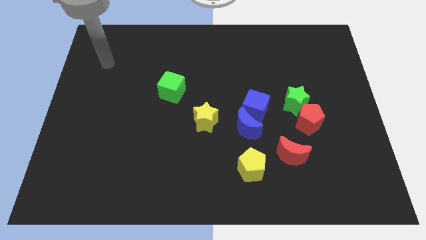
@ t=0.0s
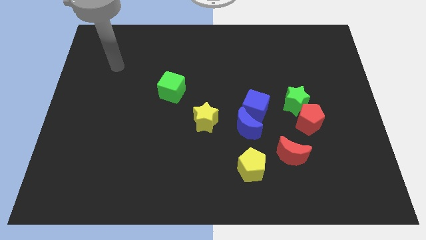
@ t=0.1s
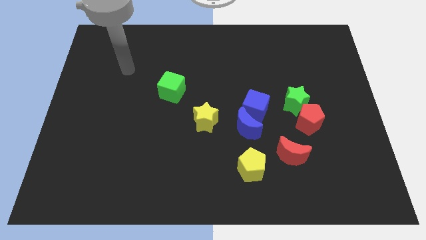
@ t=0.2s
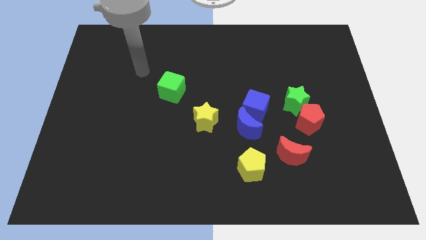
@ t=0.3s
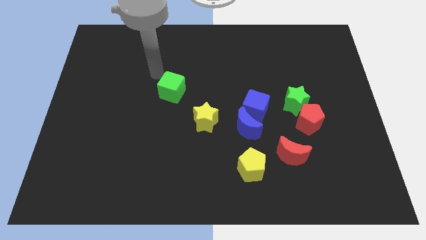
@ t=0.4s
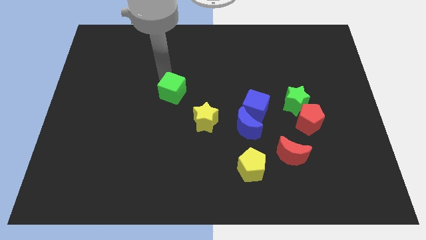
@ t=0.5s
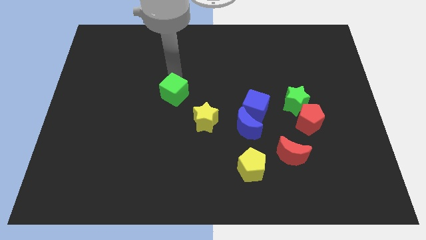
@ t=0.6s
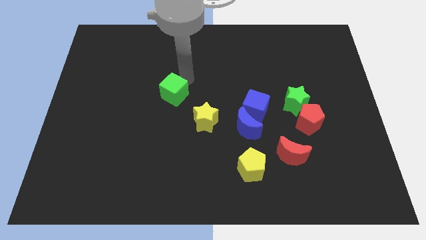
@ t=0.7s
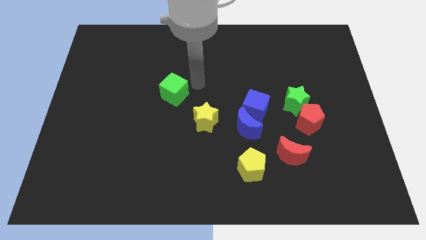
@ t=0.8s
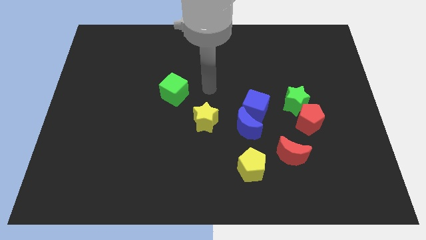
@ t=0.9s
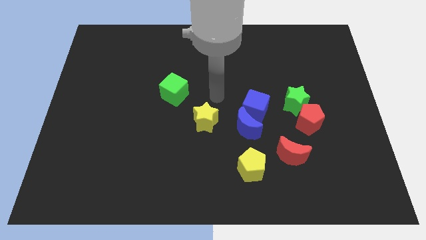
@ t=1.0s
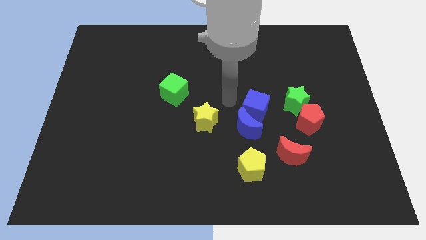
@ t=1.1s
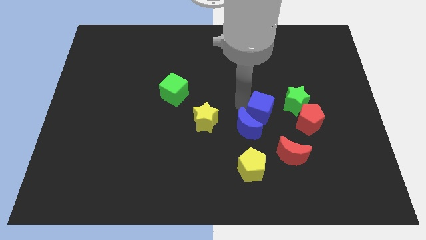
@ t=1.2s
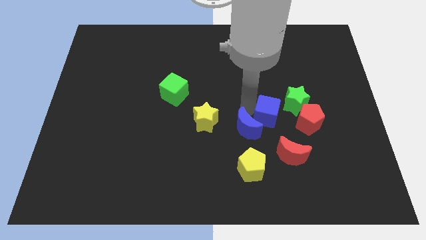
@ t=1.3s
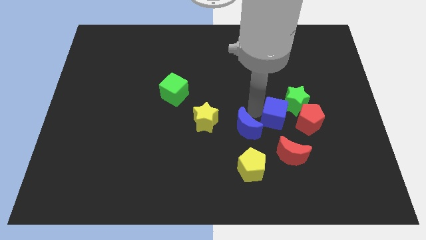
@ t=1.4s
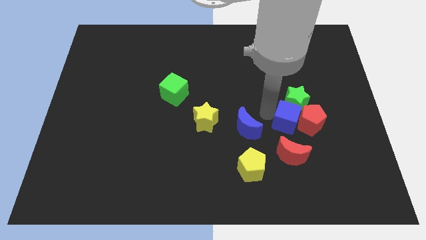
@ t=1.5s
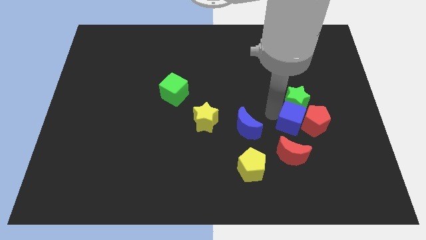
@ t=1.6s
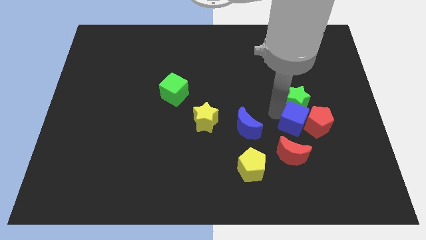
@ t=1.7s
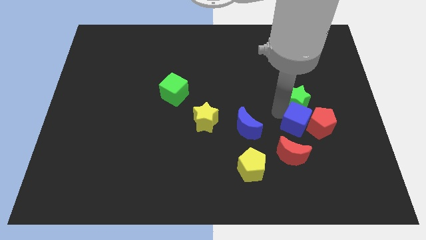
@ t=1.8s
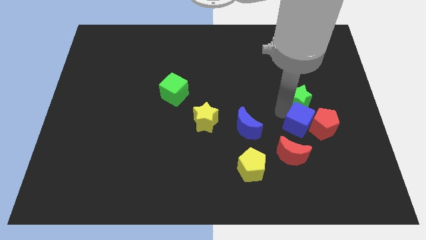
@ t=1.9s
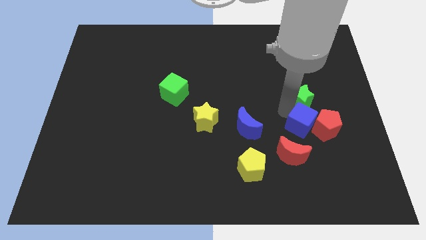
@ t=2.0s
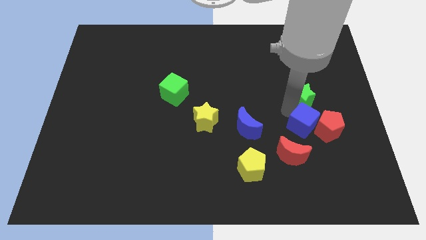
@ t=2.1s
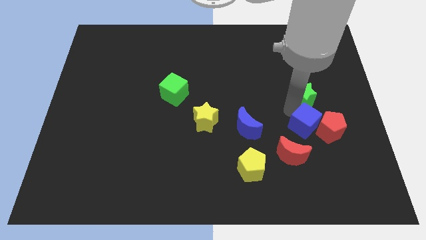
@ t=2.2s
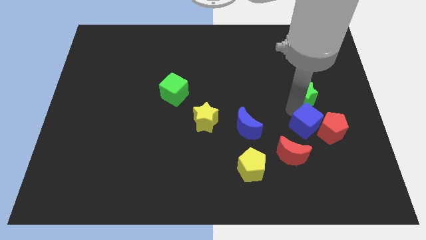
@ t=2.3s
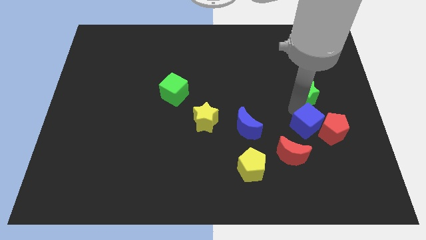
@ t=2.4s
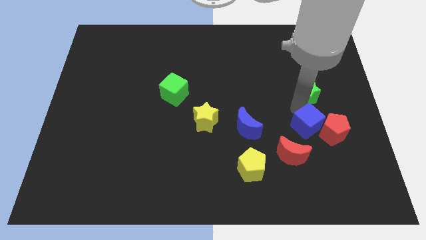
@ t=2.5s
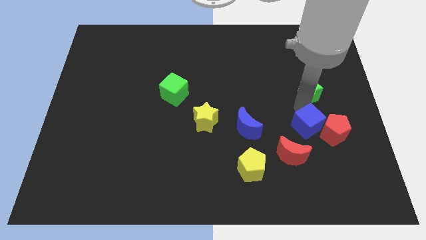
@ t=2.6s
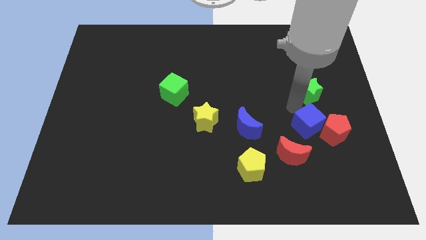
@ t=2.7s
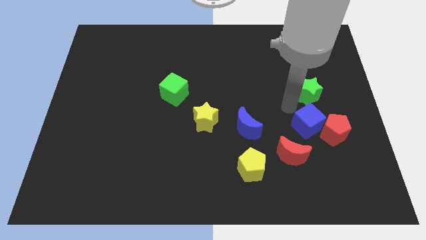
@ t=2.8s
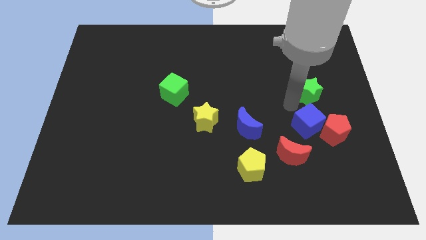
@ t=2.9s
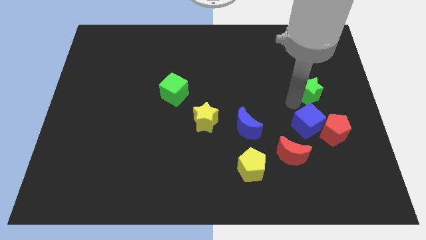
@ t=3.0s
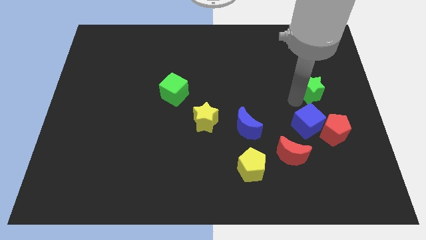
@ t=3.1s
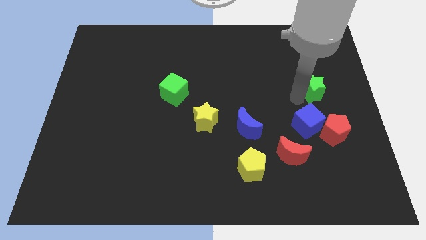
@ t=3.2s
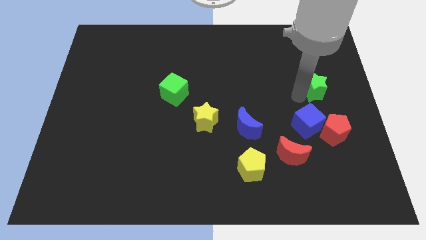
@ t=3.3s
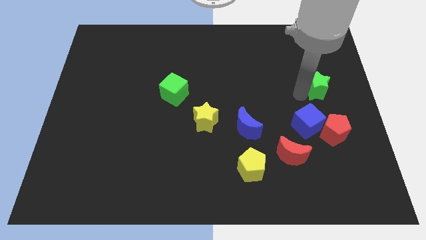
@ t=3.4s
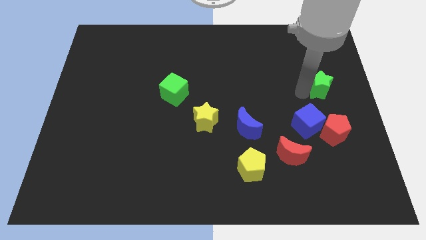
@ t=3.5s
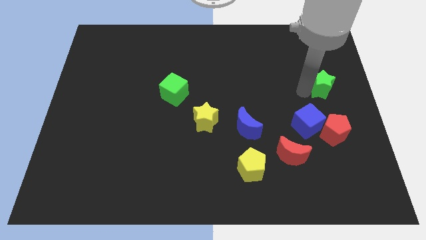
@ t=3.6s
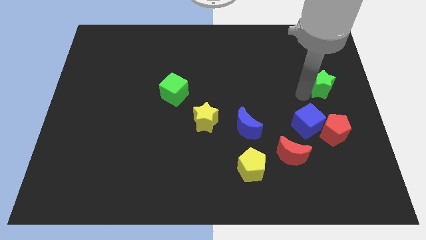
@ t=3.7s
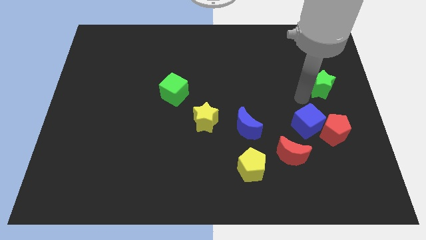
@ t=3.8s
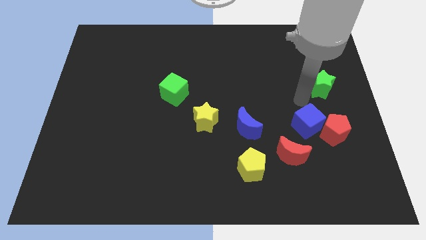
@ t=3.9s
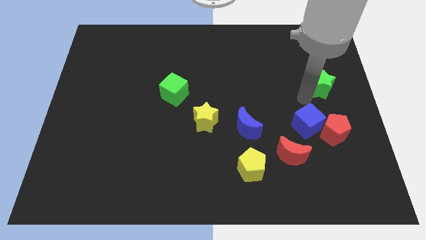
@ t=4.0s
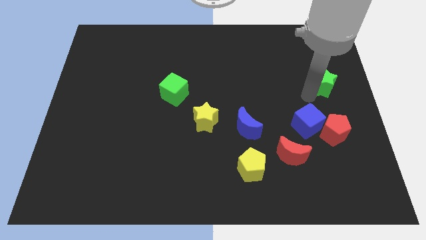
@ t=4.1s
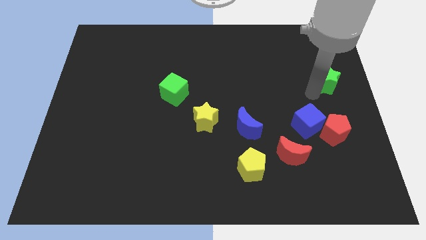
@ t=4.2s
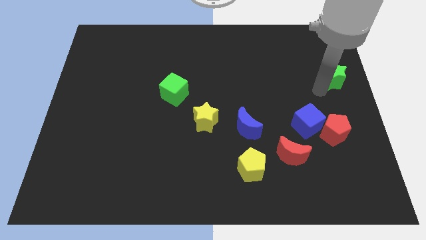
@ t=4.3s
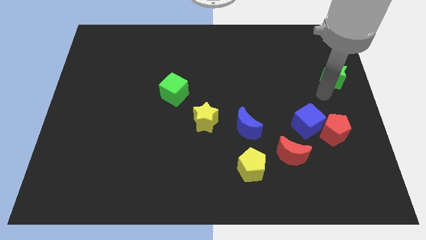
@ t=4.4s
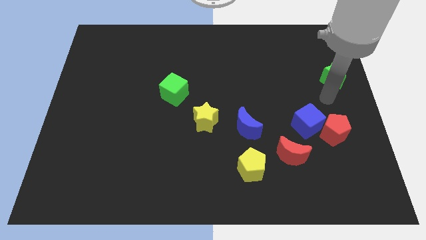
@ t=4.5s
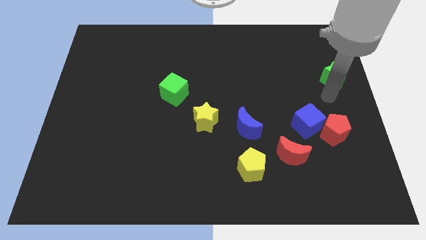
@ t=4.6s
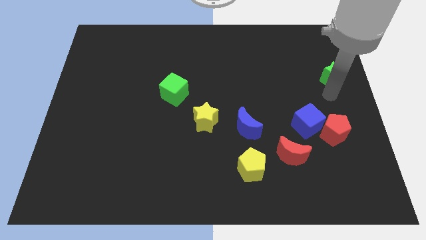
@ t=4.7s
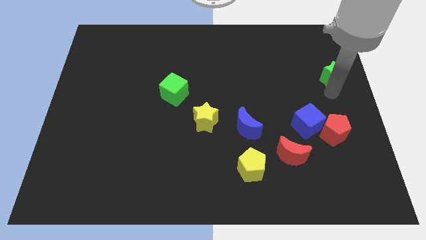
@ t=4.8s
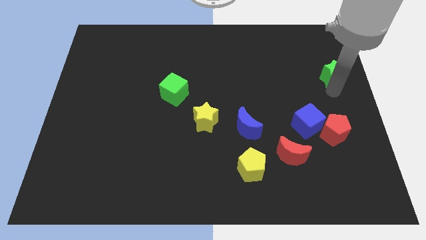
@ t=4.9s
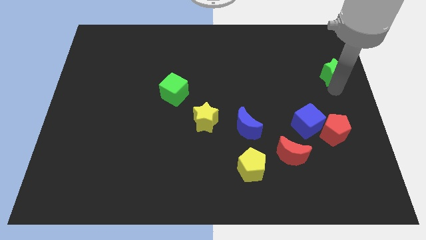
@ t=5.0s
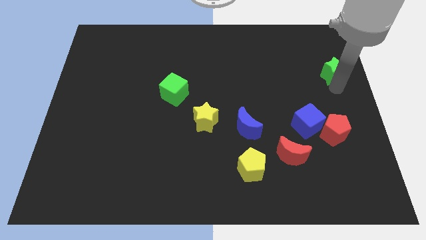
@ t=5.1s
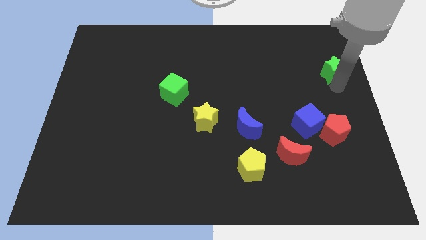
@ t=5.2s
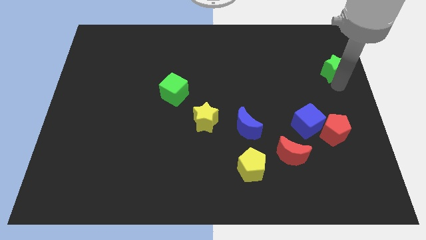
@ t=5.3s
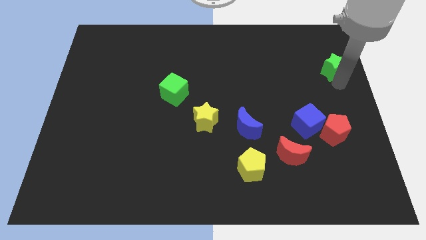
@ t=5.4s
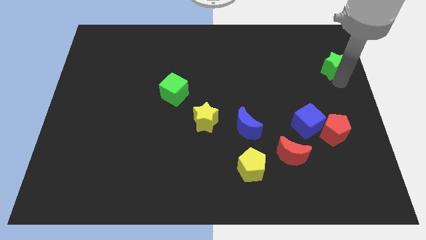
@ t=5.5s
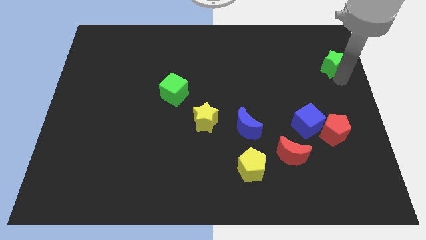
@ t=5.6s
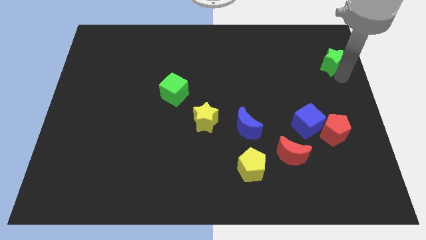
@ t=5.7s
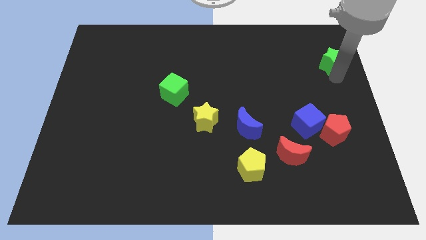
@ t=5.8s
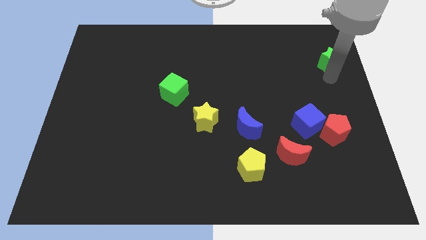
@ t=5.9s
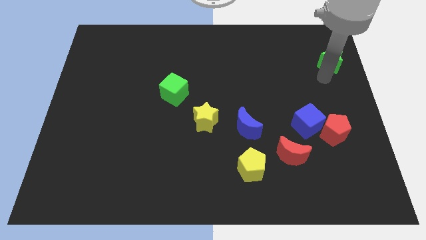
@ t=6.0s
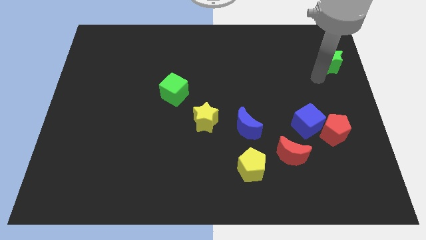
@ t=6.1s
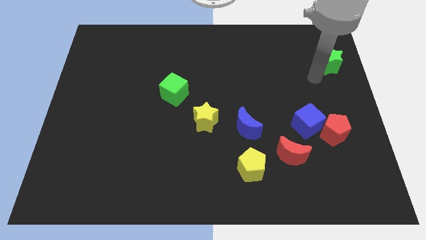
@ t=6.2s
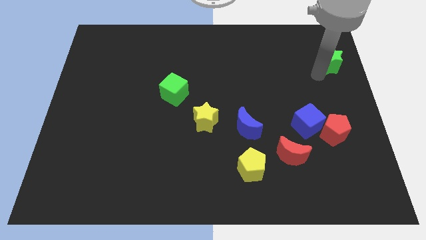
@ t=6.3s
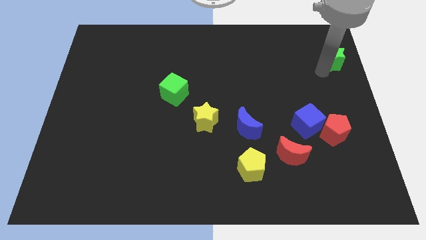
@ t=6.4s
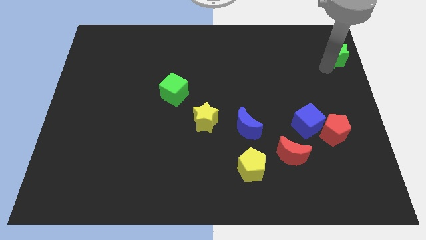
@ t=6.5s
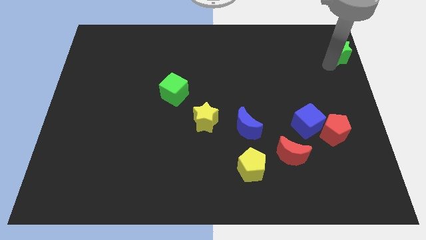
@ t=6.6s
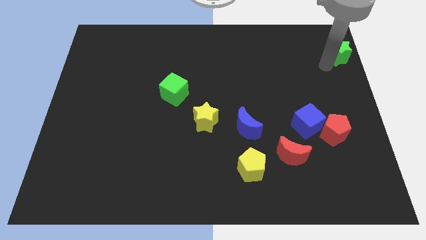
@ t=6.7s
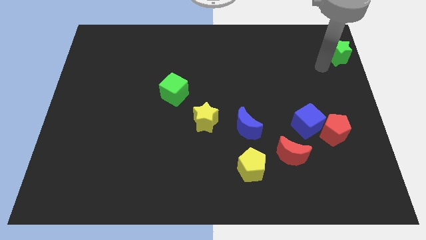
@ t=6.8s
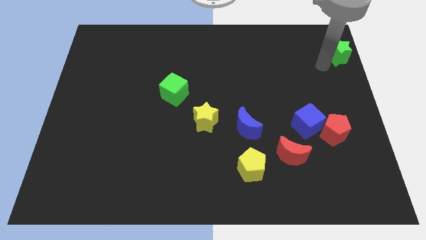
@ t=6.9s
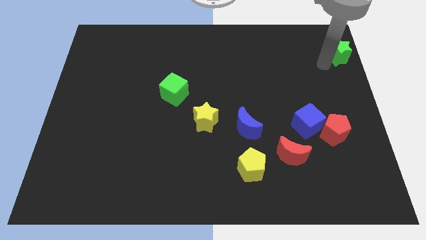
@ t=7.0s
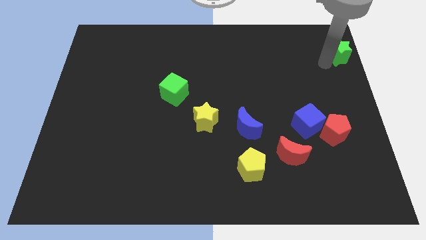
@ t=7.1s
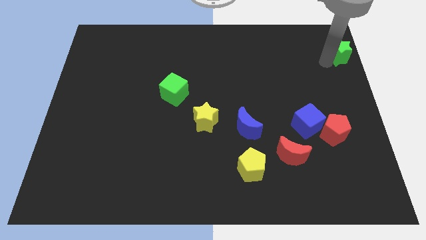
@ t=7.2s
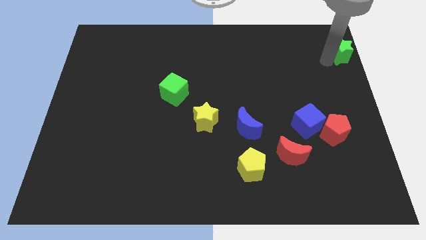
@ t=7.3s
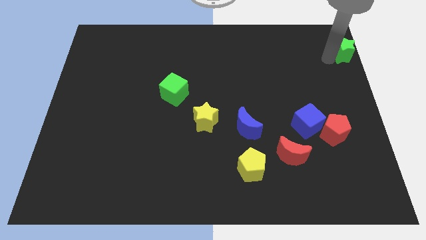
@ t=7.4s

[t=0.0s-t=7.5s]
slide the green star to the top right of the board

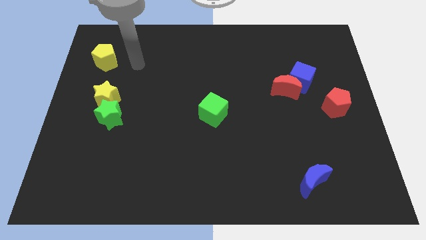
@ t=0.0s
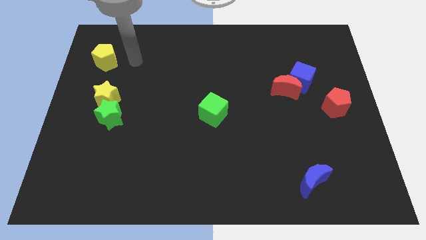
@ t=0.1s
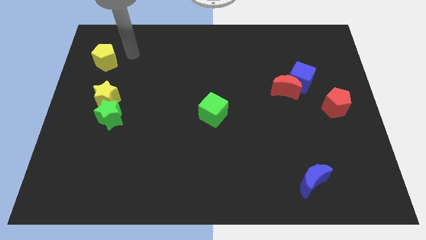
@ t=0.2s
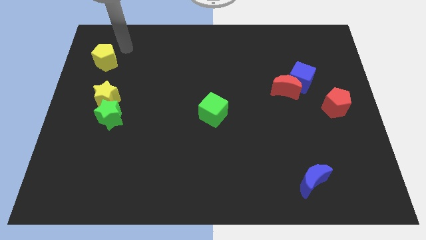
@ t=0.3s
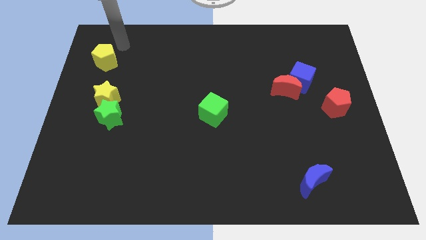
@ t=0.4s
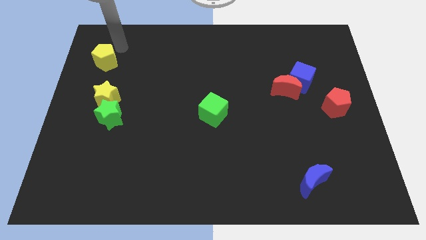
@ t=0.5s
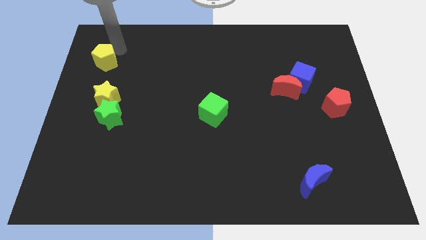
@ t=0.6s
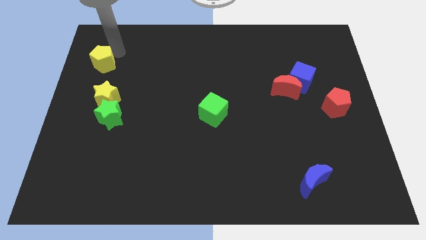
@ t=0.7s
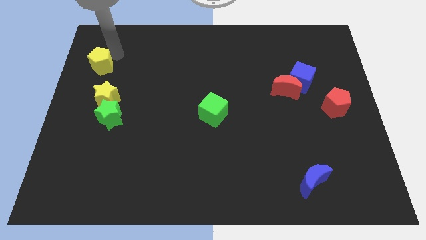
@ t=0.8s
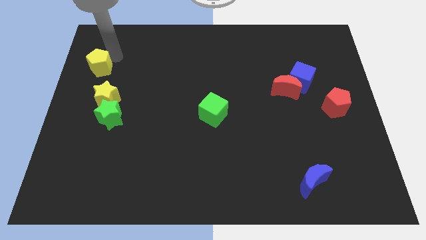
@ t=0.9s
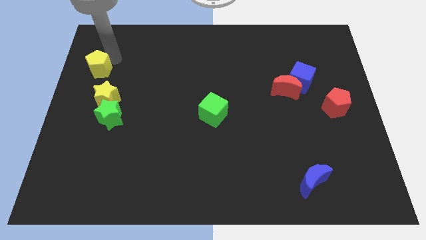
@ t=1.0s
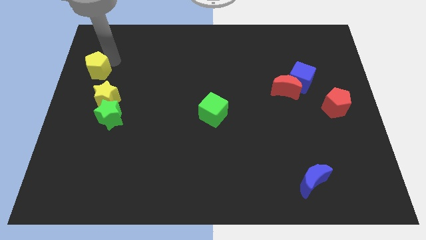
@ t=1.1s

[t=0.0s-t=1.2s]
push the yellow pentagon to the center left
